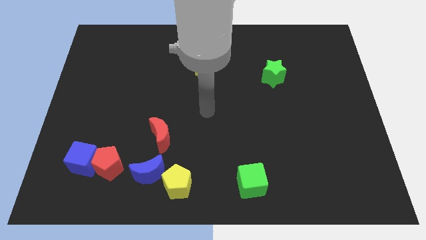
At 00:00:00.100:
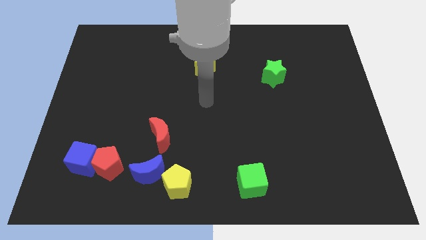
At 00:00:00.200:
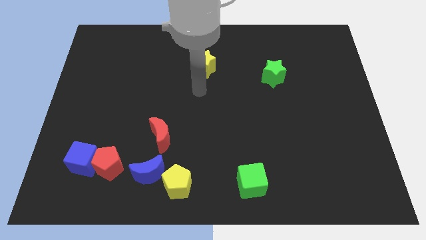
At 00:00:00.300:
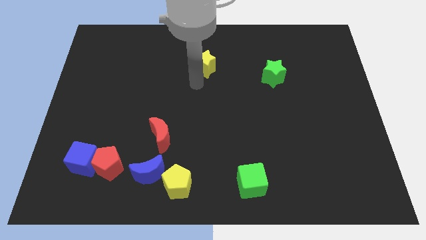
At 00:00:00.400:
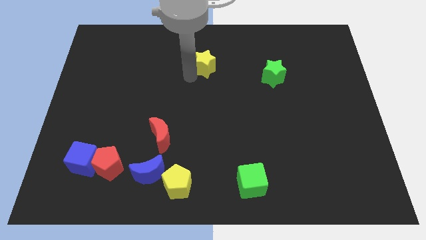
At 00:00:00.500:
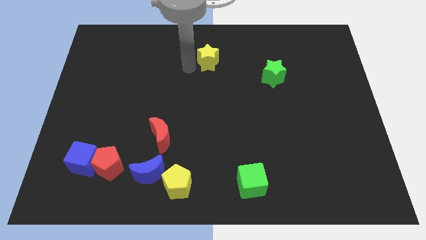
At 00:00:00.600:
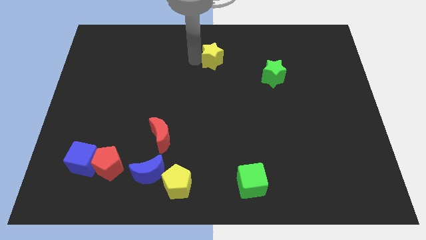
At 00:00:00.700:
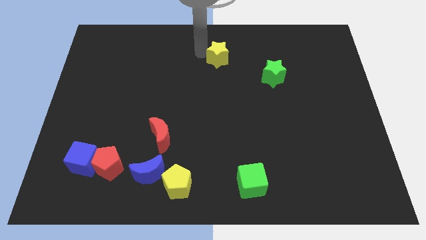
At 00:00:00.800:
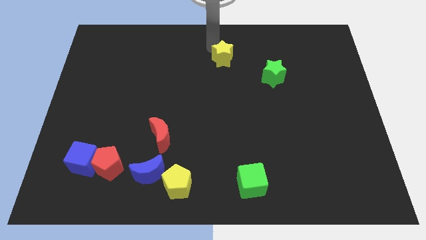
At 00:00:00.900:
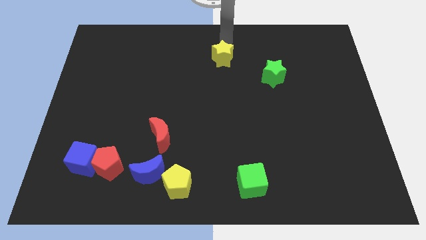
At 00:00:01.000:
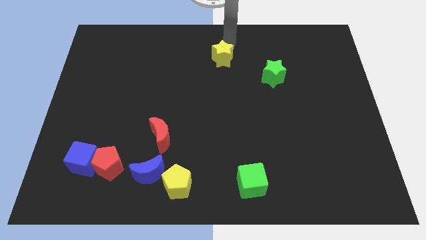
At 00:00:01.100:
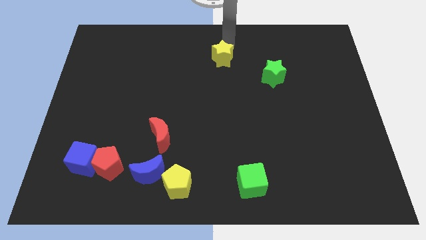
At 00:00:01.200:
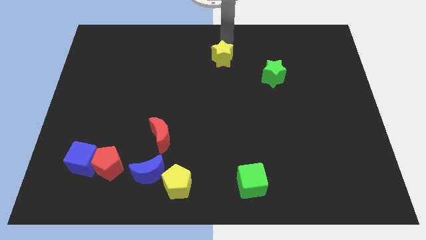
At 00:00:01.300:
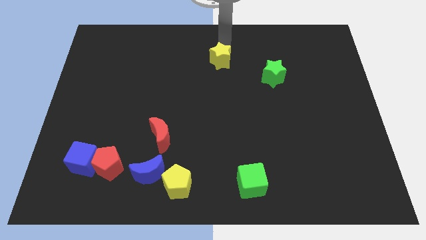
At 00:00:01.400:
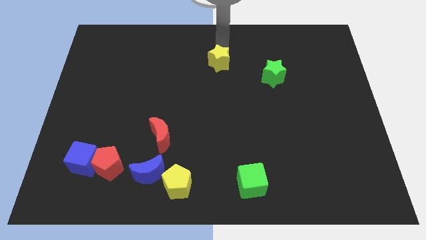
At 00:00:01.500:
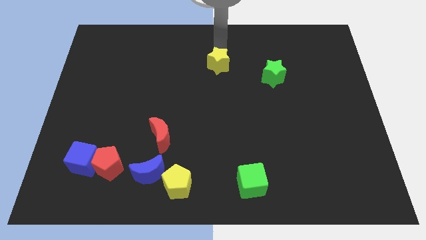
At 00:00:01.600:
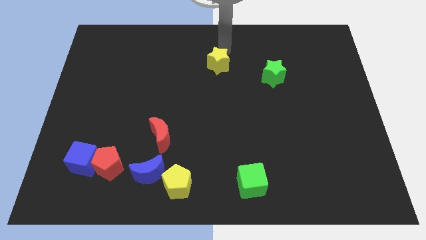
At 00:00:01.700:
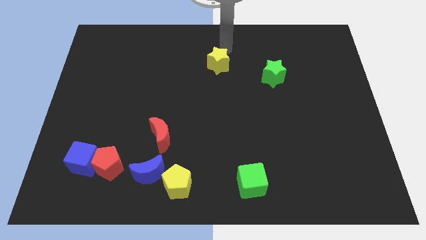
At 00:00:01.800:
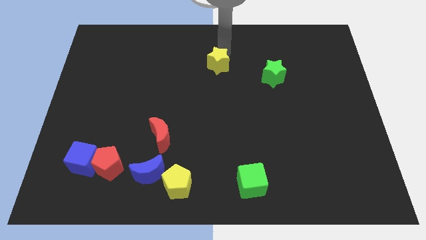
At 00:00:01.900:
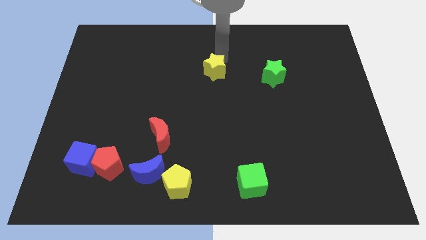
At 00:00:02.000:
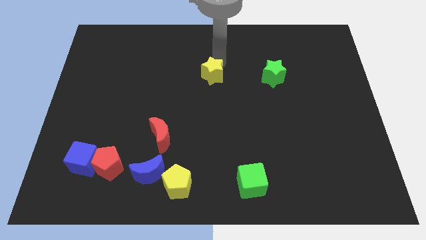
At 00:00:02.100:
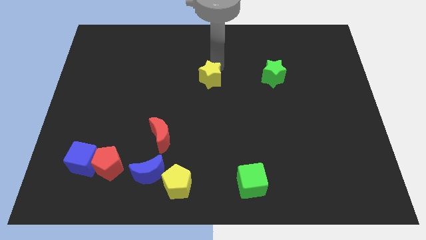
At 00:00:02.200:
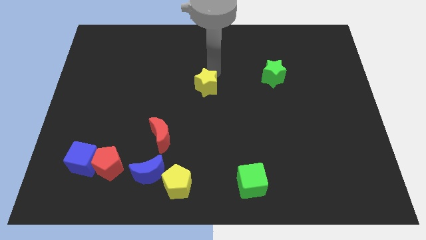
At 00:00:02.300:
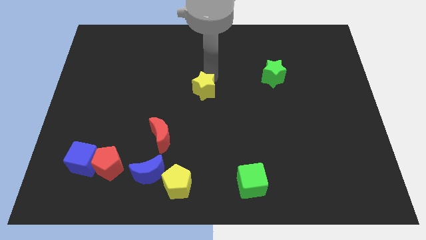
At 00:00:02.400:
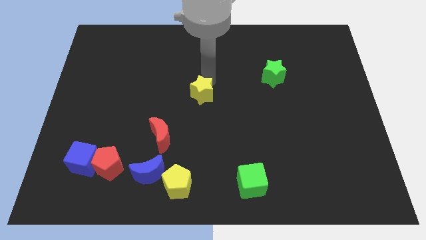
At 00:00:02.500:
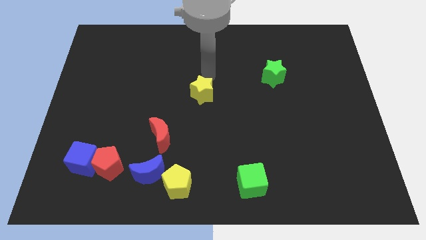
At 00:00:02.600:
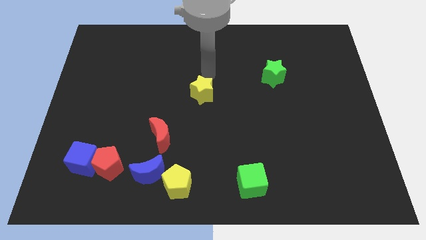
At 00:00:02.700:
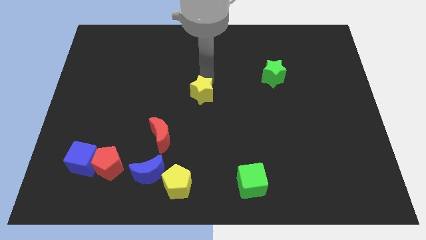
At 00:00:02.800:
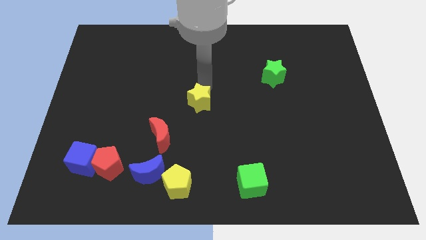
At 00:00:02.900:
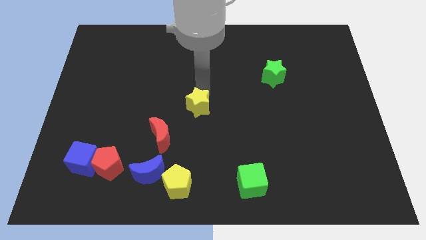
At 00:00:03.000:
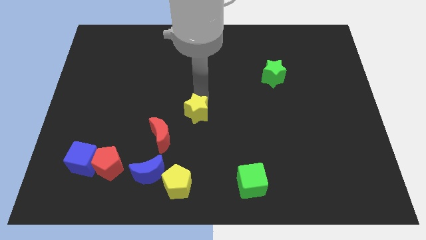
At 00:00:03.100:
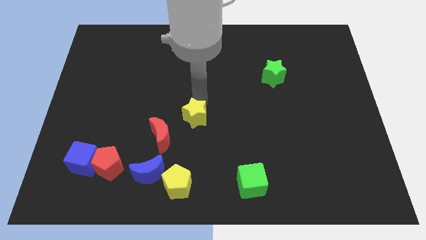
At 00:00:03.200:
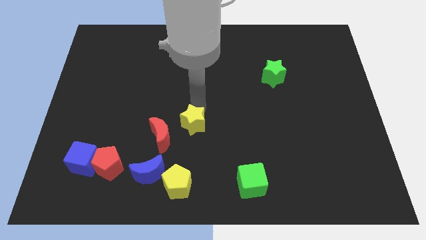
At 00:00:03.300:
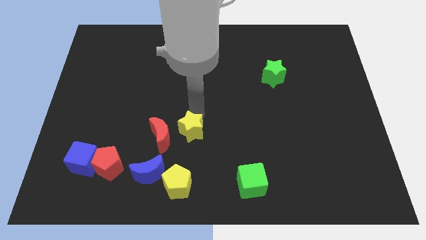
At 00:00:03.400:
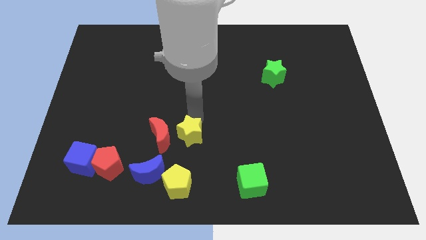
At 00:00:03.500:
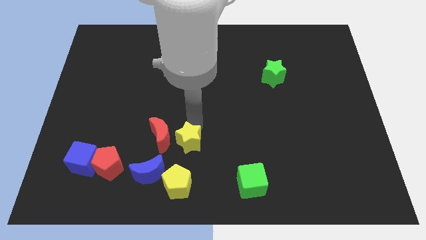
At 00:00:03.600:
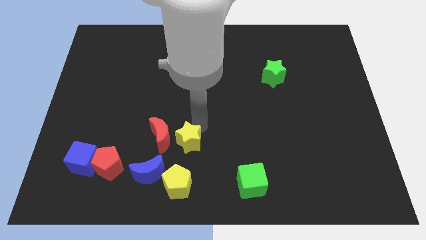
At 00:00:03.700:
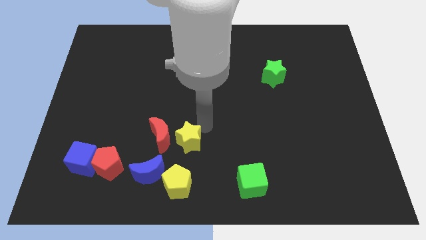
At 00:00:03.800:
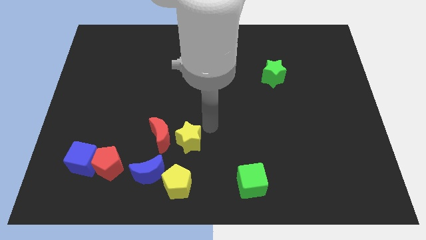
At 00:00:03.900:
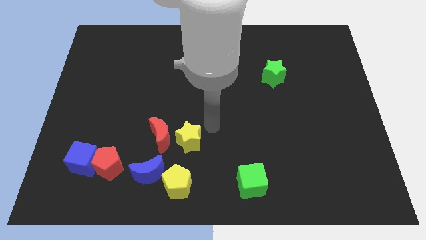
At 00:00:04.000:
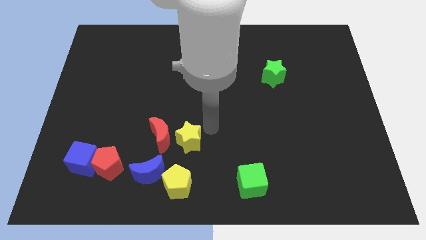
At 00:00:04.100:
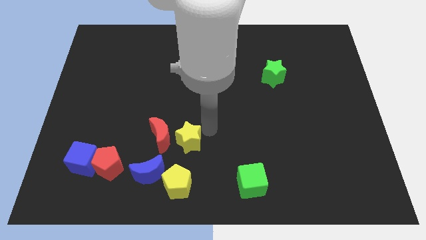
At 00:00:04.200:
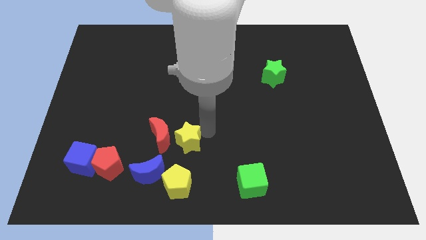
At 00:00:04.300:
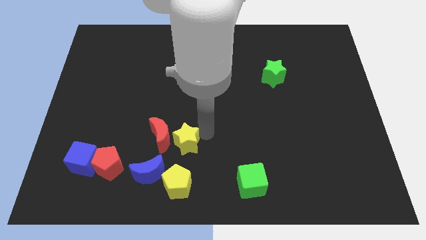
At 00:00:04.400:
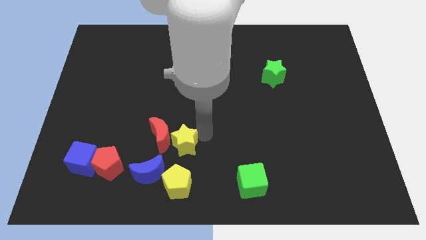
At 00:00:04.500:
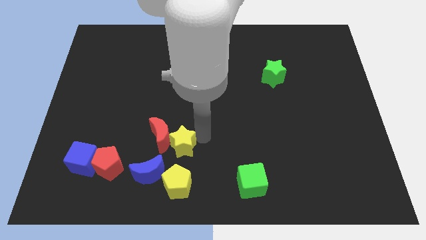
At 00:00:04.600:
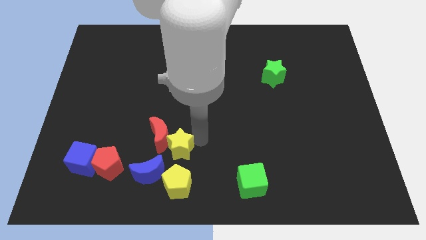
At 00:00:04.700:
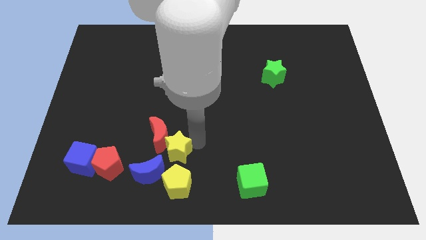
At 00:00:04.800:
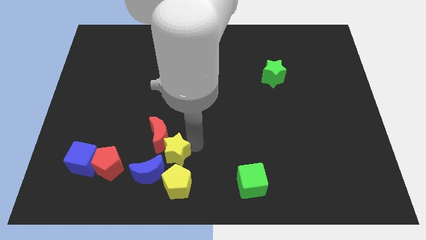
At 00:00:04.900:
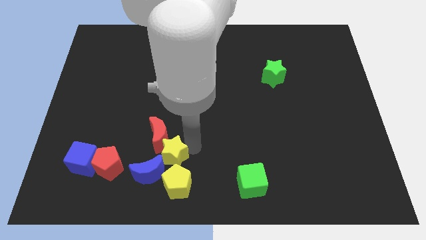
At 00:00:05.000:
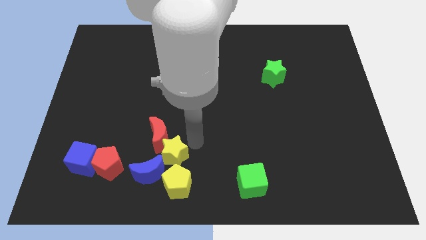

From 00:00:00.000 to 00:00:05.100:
put the yellow star to the blue moon

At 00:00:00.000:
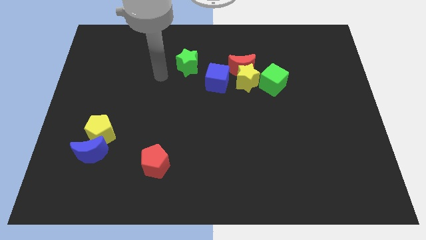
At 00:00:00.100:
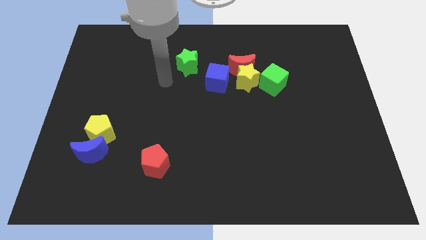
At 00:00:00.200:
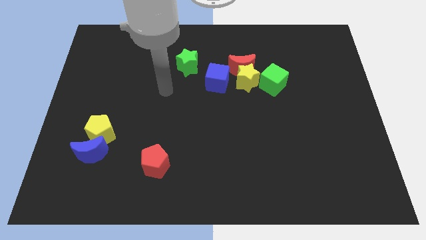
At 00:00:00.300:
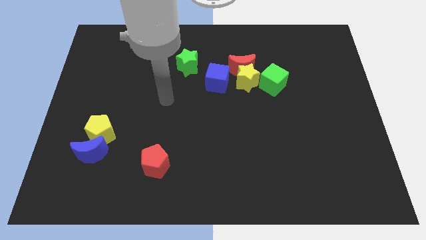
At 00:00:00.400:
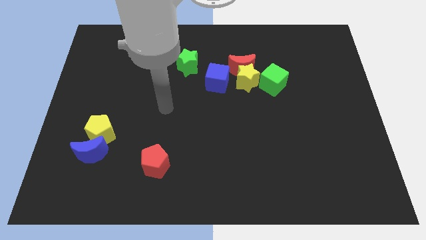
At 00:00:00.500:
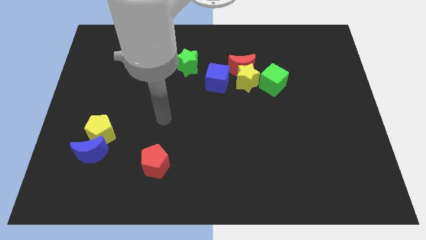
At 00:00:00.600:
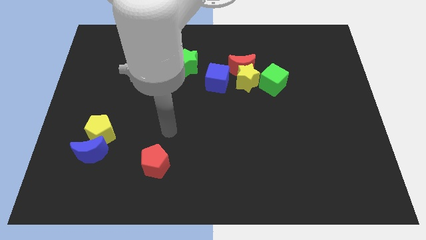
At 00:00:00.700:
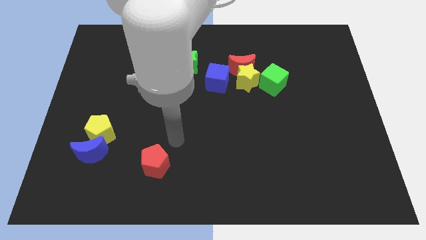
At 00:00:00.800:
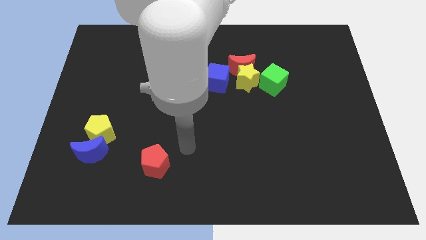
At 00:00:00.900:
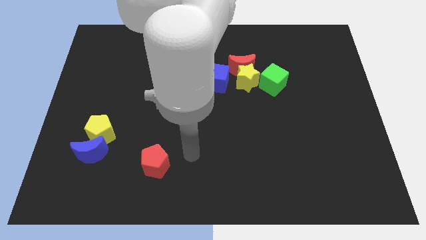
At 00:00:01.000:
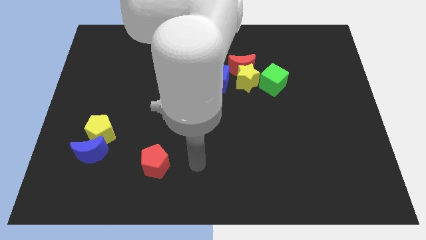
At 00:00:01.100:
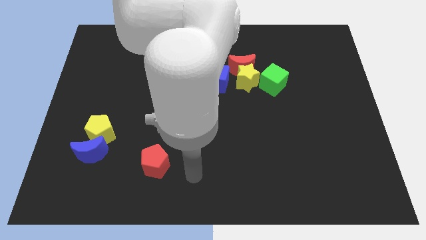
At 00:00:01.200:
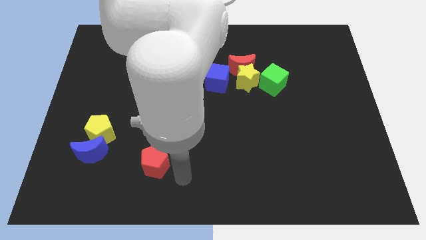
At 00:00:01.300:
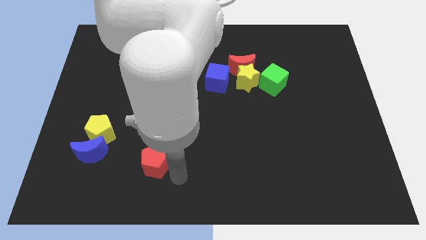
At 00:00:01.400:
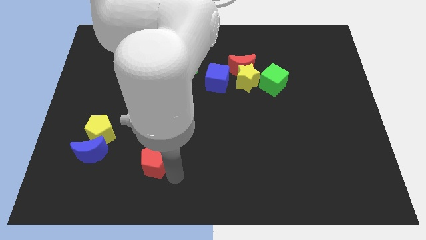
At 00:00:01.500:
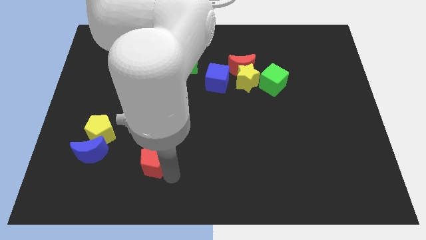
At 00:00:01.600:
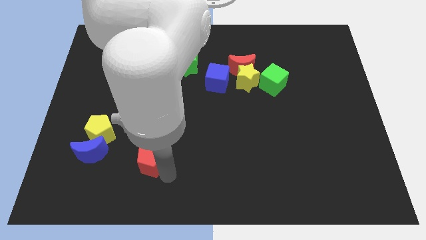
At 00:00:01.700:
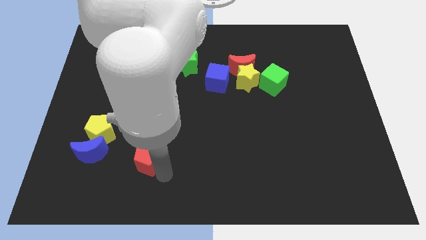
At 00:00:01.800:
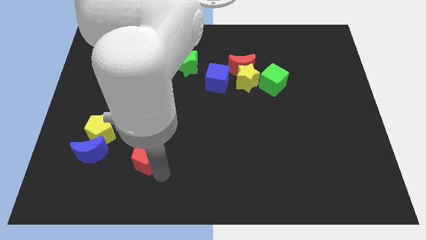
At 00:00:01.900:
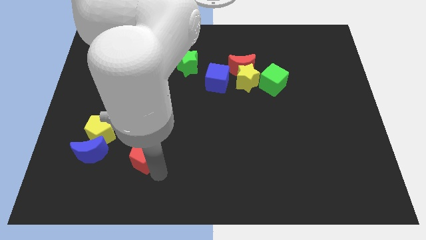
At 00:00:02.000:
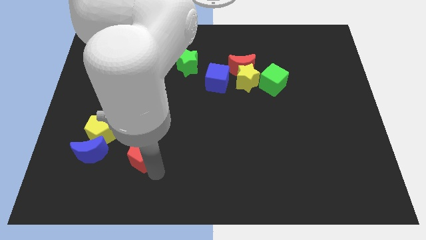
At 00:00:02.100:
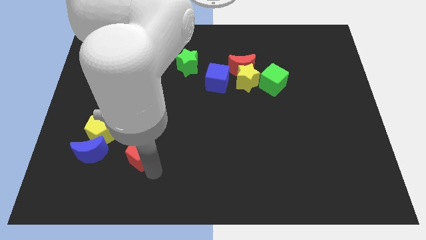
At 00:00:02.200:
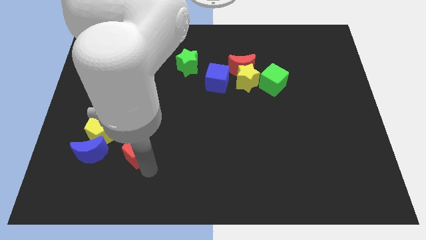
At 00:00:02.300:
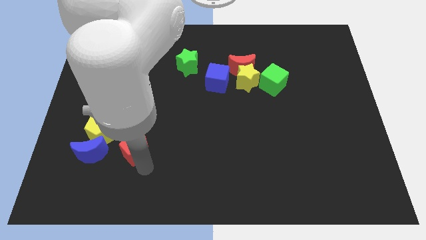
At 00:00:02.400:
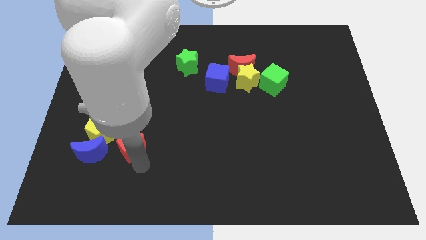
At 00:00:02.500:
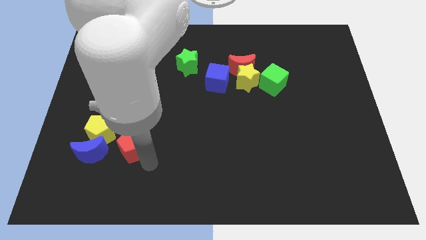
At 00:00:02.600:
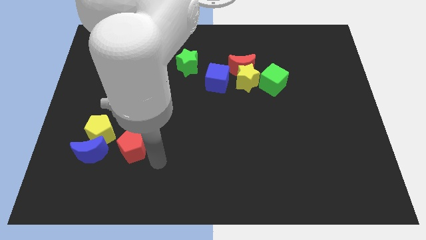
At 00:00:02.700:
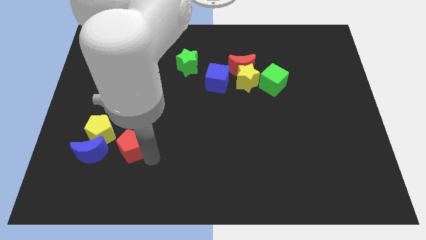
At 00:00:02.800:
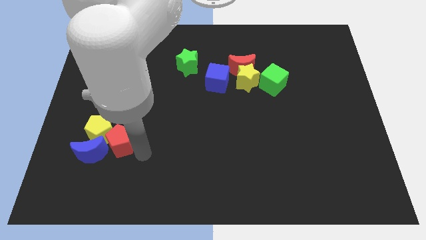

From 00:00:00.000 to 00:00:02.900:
push the red pentagon close to the yellow pentagon
